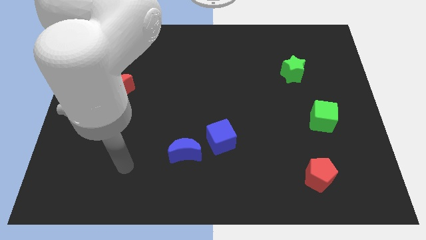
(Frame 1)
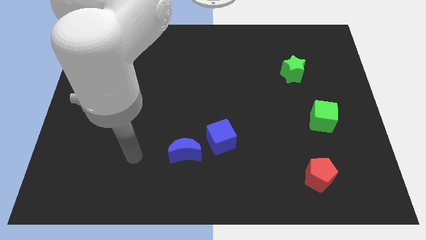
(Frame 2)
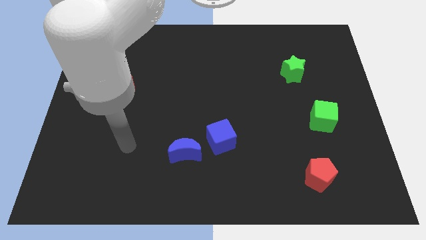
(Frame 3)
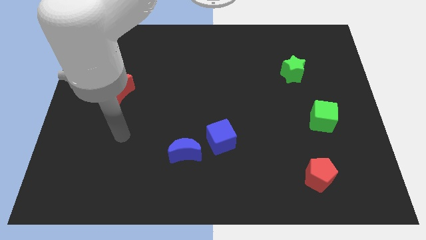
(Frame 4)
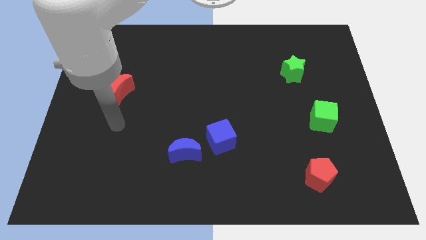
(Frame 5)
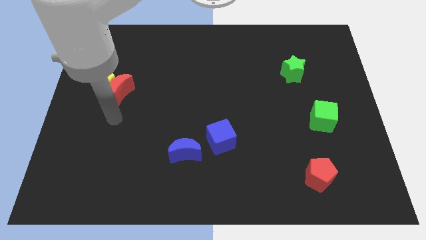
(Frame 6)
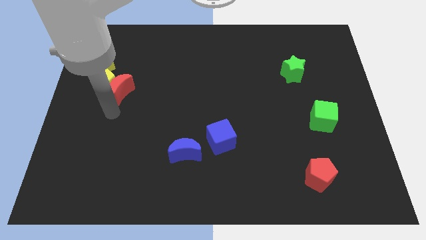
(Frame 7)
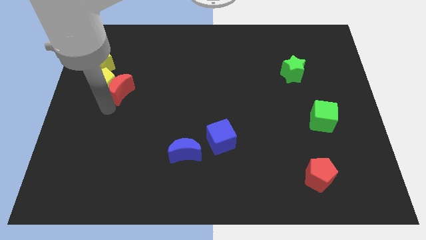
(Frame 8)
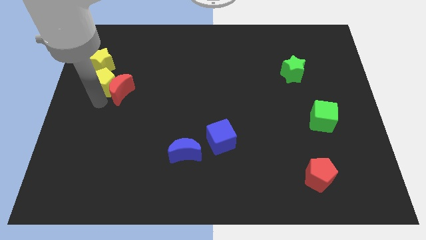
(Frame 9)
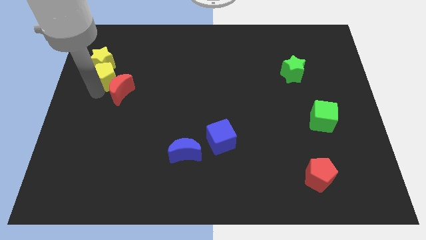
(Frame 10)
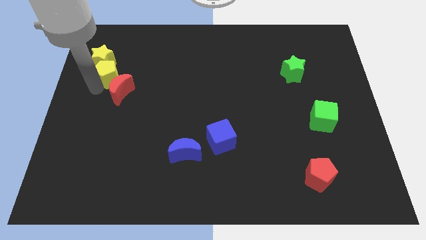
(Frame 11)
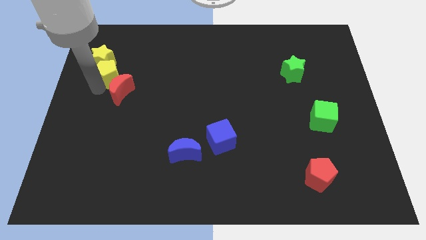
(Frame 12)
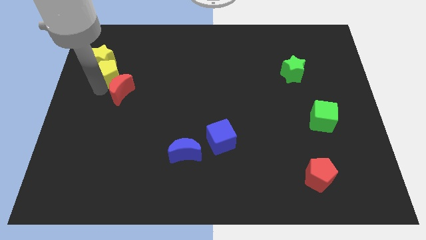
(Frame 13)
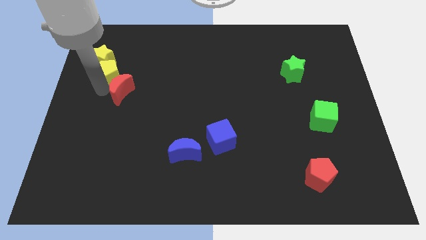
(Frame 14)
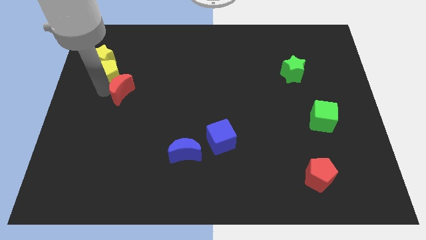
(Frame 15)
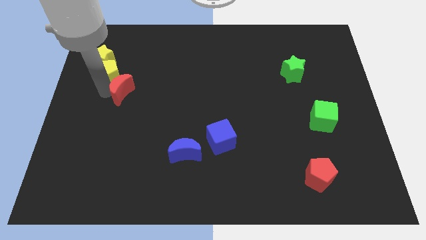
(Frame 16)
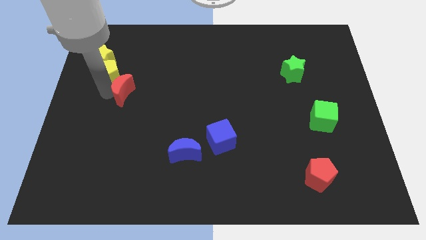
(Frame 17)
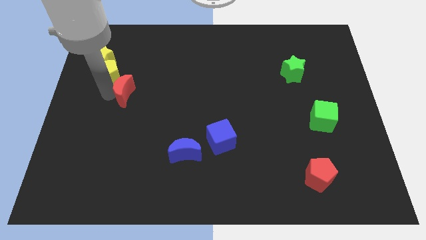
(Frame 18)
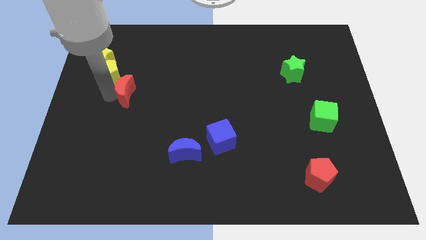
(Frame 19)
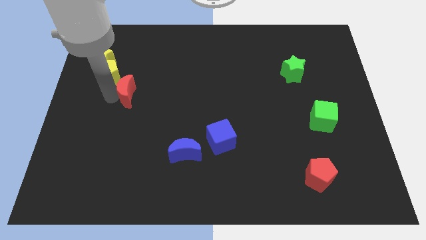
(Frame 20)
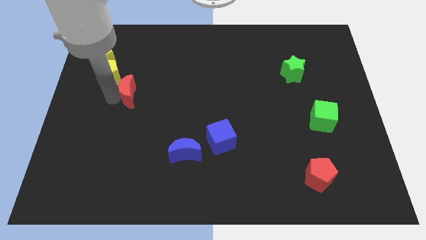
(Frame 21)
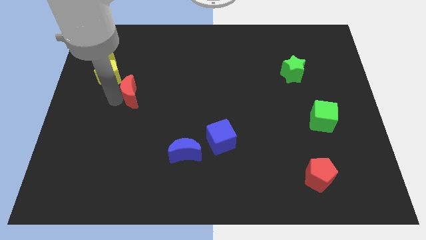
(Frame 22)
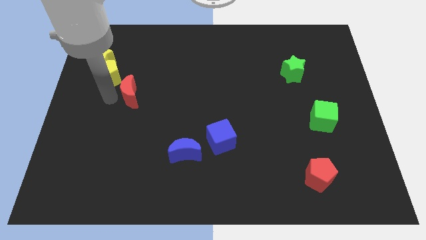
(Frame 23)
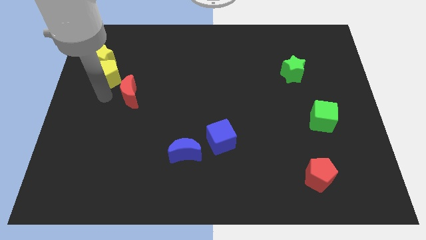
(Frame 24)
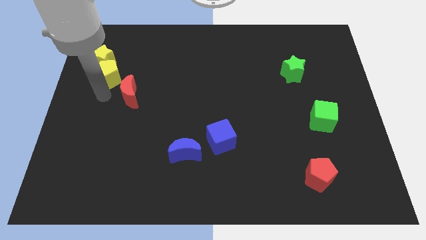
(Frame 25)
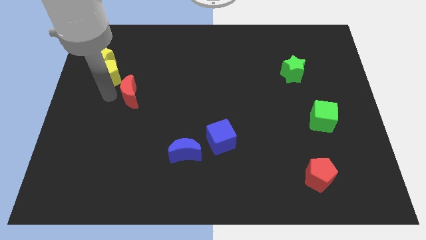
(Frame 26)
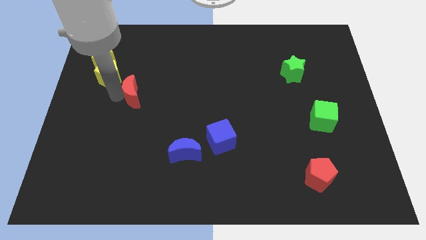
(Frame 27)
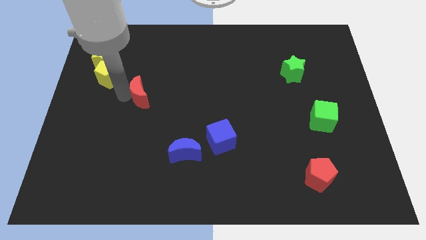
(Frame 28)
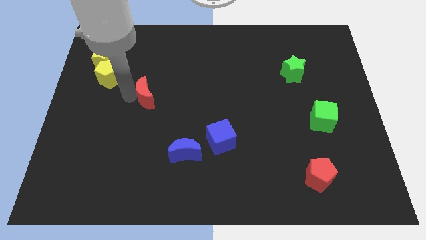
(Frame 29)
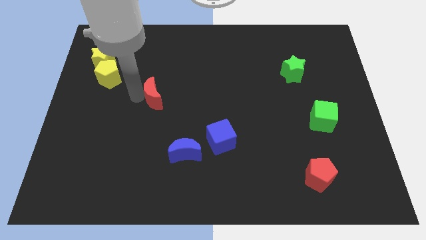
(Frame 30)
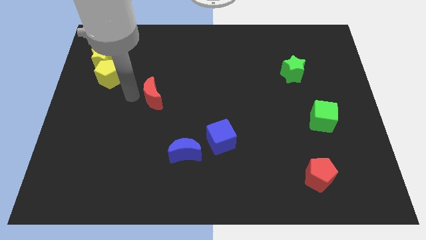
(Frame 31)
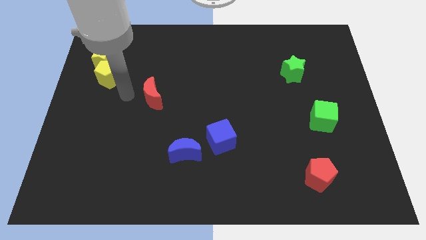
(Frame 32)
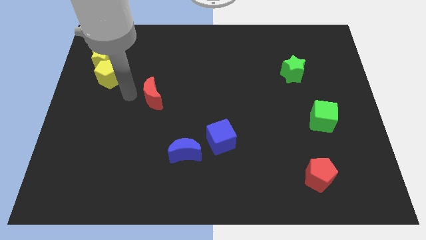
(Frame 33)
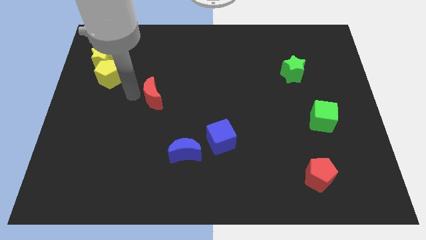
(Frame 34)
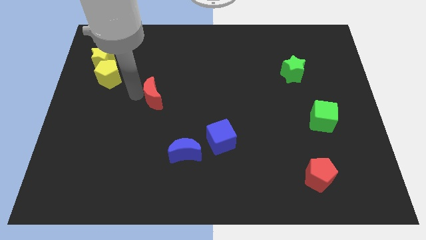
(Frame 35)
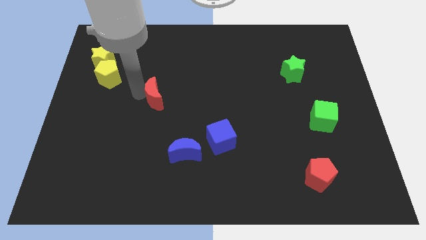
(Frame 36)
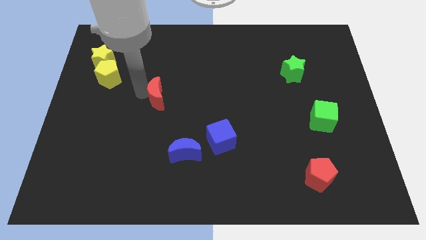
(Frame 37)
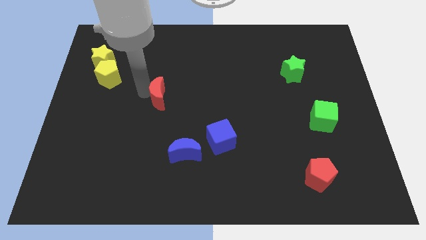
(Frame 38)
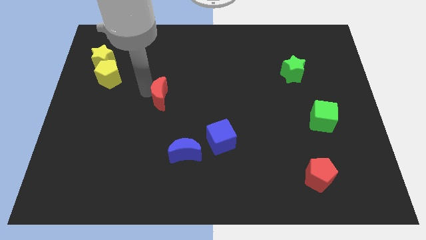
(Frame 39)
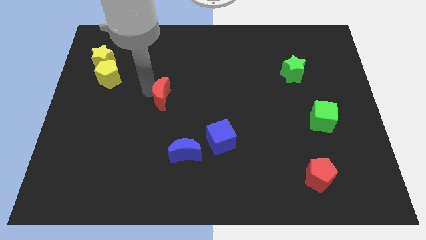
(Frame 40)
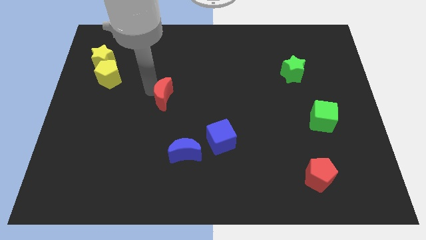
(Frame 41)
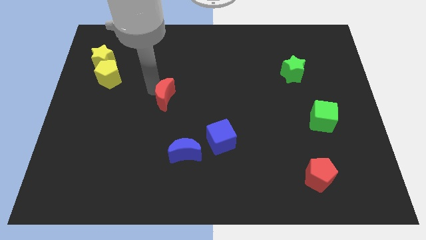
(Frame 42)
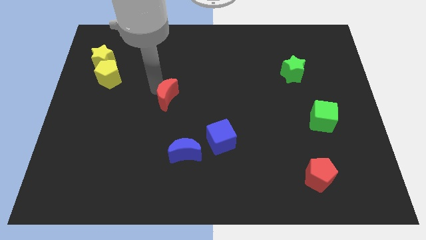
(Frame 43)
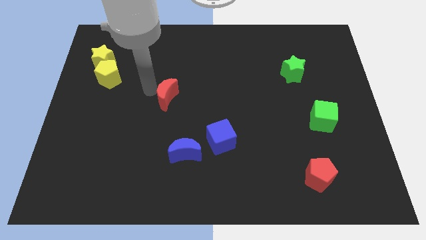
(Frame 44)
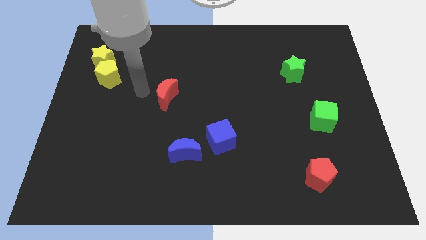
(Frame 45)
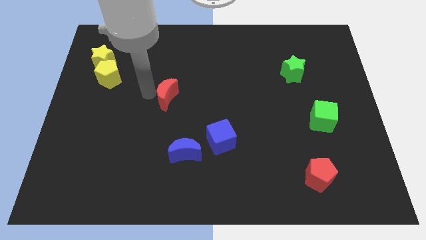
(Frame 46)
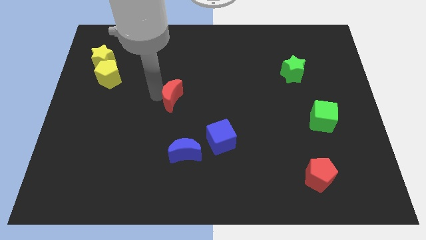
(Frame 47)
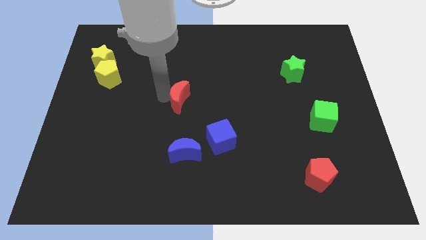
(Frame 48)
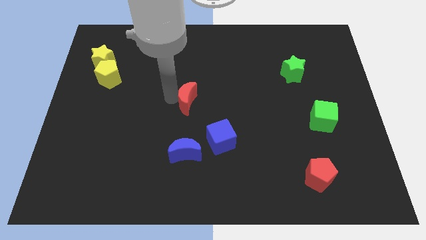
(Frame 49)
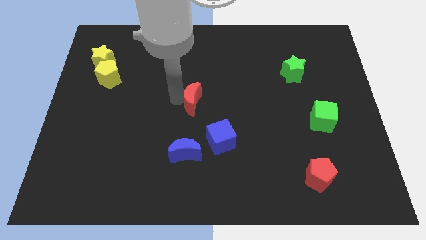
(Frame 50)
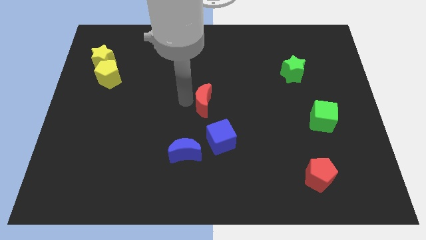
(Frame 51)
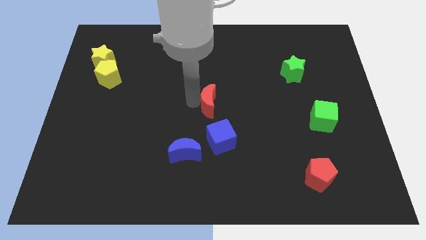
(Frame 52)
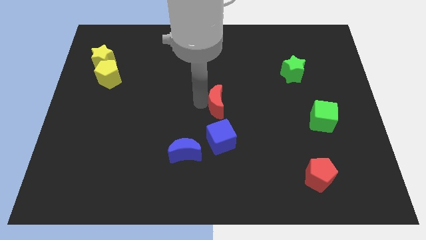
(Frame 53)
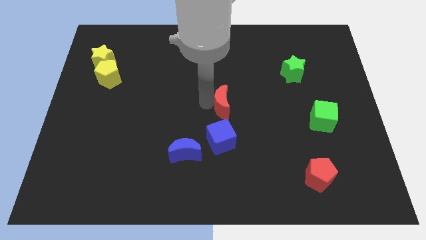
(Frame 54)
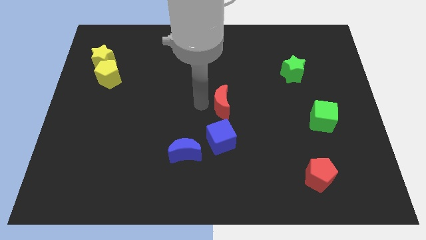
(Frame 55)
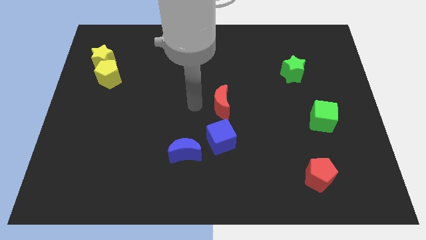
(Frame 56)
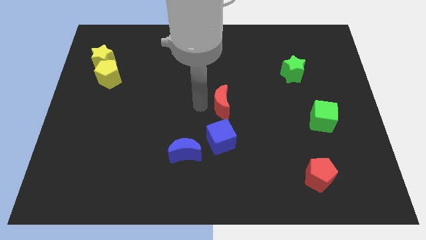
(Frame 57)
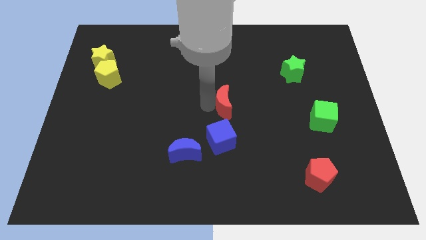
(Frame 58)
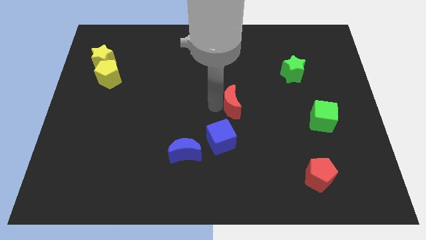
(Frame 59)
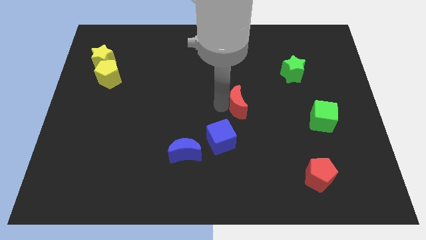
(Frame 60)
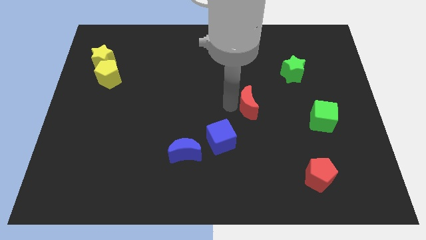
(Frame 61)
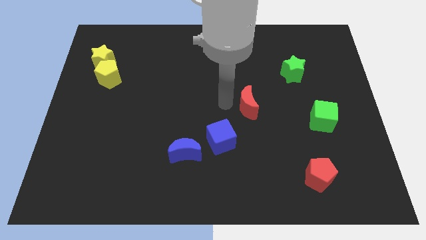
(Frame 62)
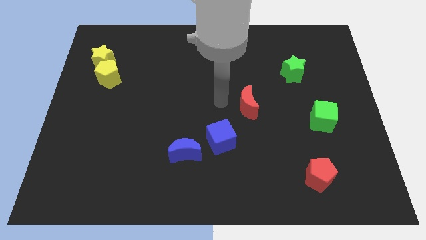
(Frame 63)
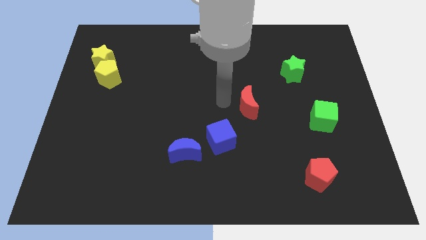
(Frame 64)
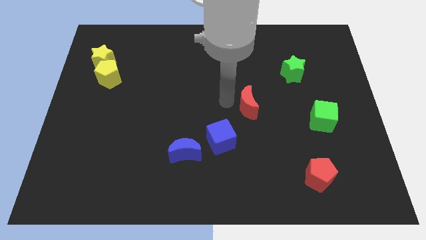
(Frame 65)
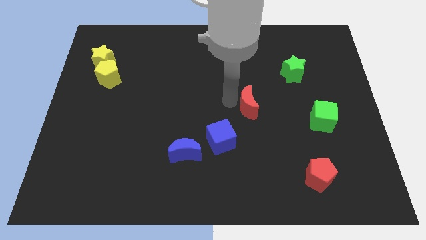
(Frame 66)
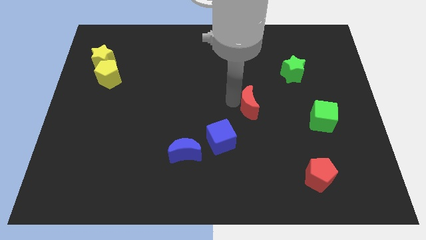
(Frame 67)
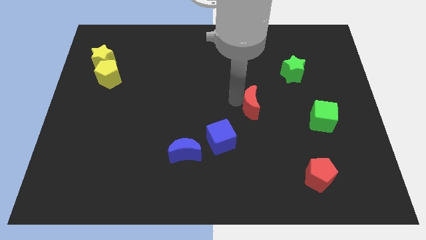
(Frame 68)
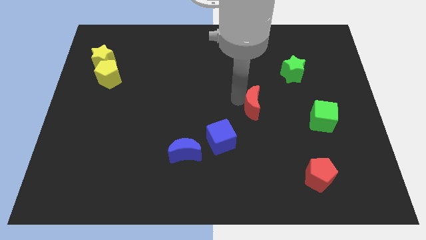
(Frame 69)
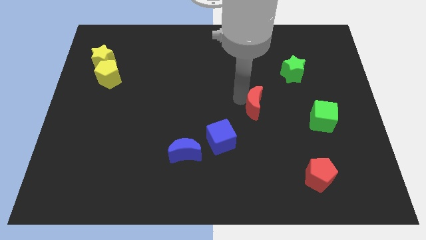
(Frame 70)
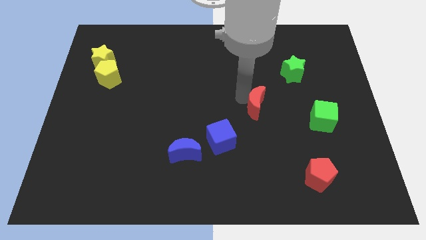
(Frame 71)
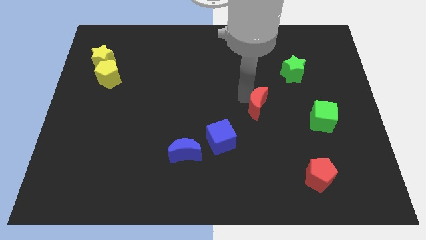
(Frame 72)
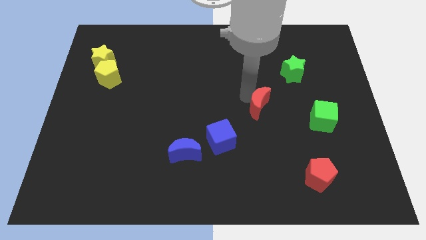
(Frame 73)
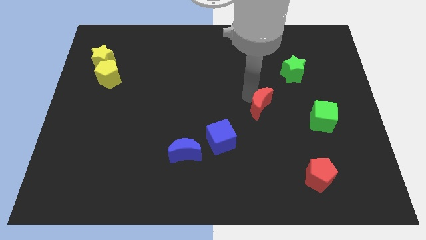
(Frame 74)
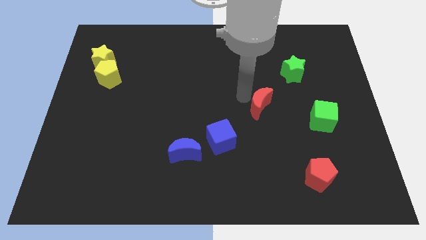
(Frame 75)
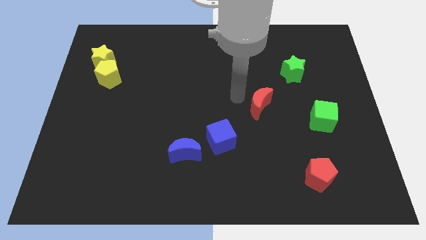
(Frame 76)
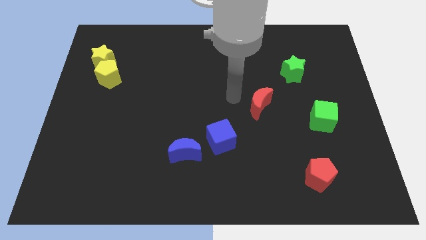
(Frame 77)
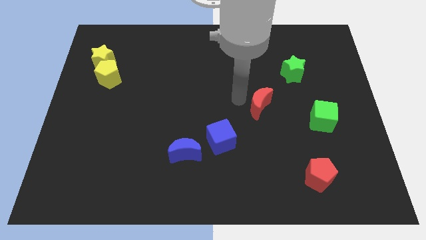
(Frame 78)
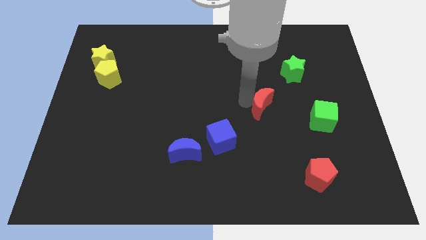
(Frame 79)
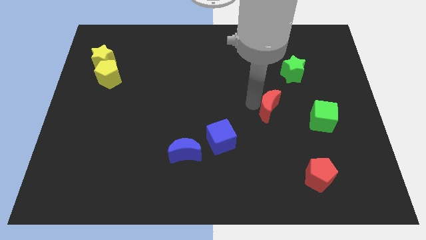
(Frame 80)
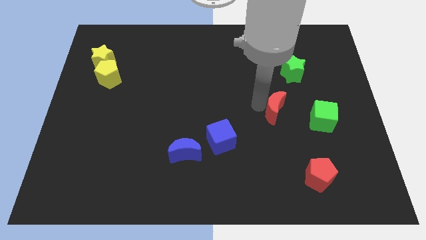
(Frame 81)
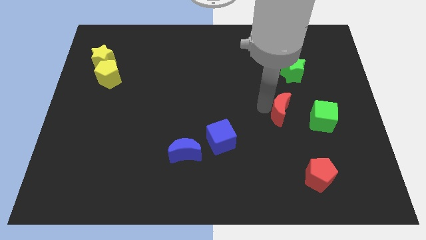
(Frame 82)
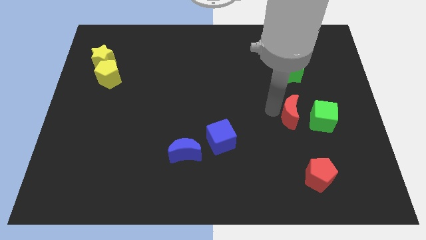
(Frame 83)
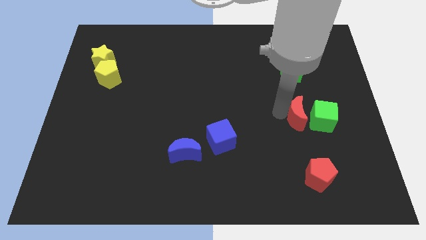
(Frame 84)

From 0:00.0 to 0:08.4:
slide the red moon towards the green cube
